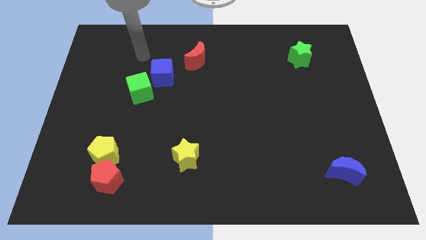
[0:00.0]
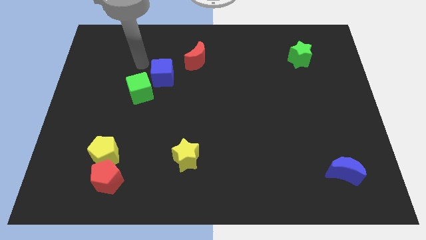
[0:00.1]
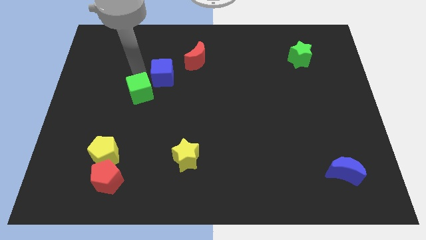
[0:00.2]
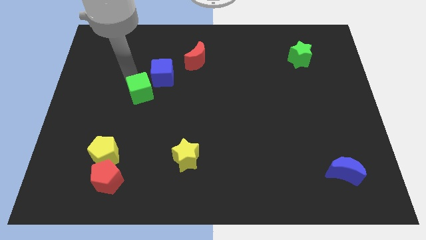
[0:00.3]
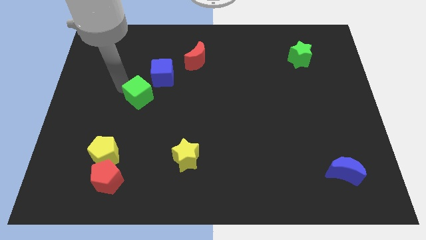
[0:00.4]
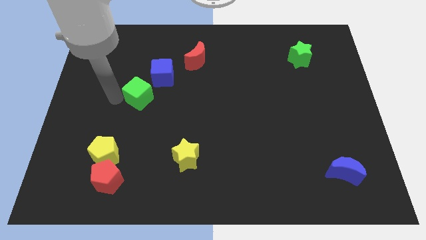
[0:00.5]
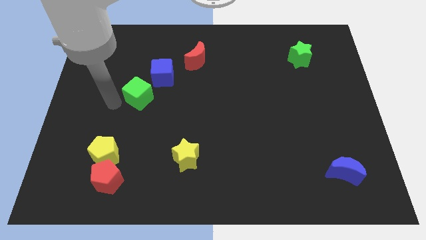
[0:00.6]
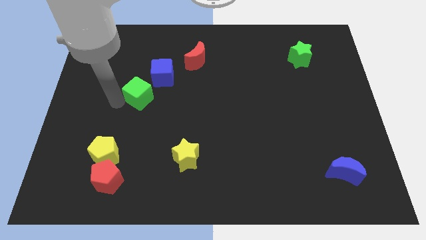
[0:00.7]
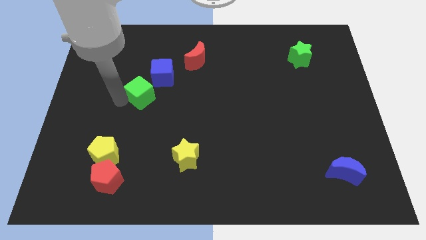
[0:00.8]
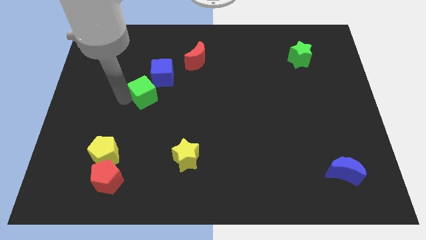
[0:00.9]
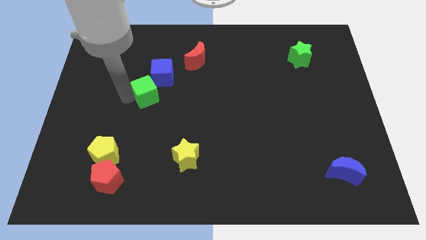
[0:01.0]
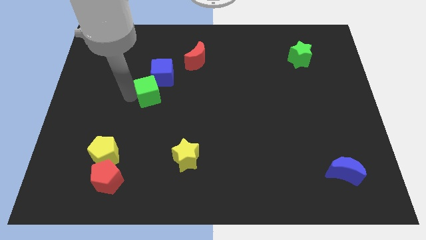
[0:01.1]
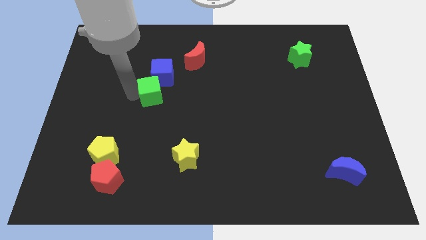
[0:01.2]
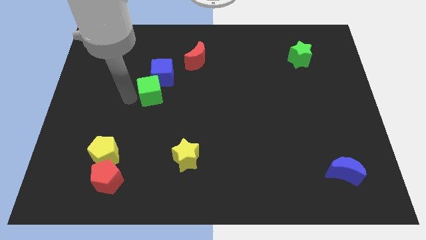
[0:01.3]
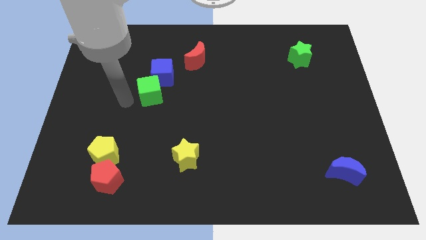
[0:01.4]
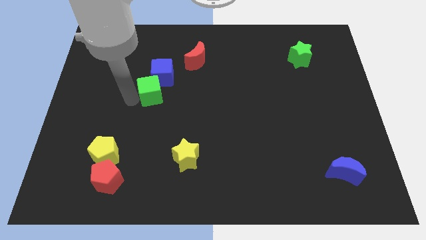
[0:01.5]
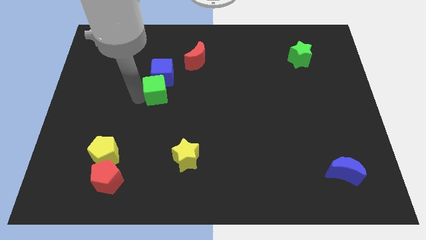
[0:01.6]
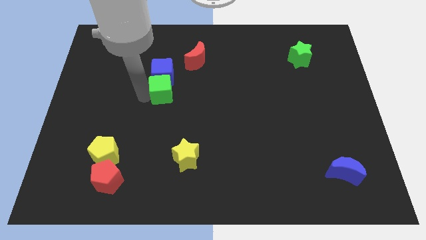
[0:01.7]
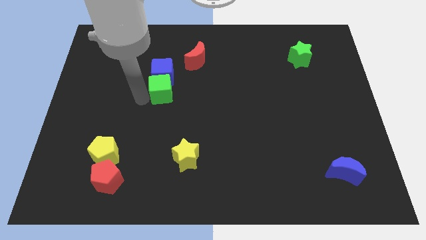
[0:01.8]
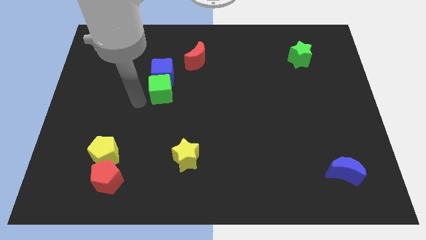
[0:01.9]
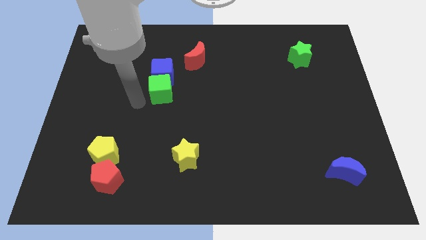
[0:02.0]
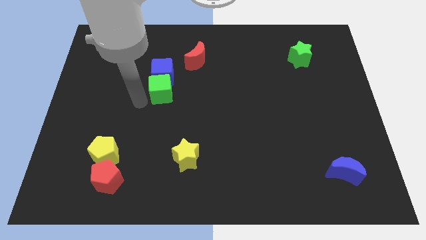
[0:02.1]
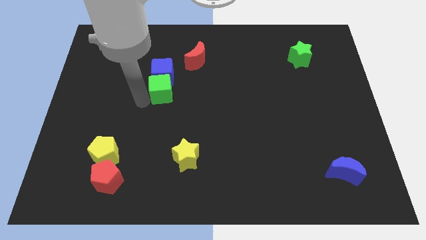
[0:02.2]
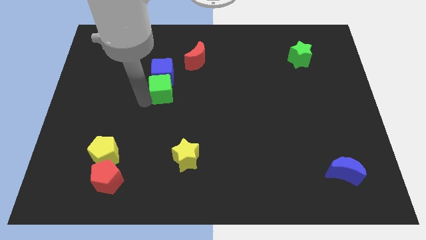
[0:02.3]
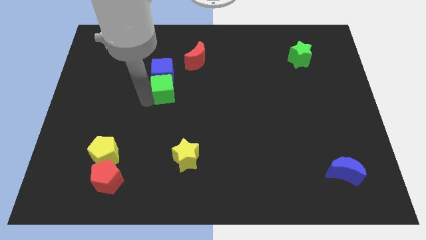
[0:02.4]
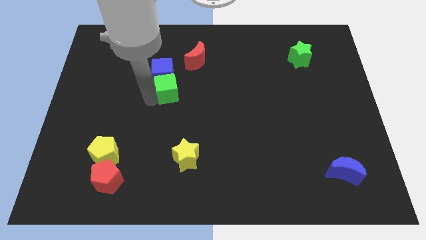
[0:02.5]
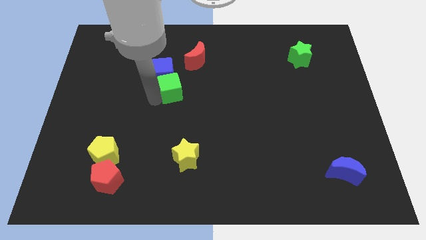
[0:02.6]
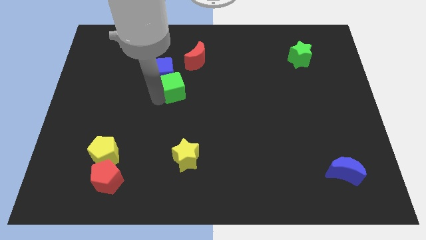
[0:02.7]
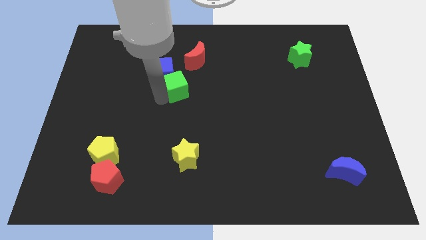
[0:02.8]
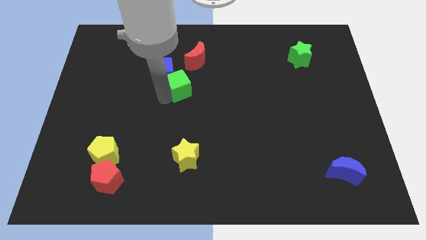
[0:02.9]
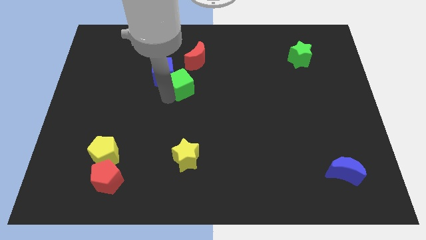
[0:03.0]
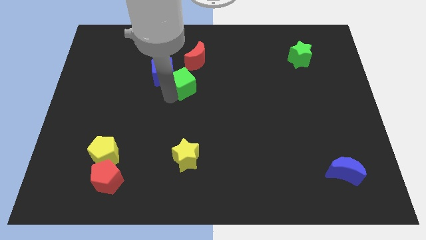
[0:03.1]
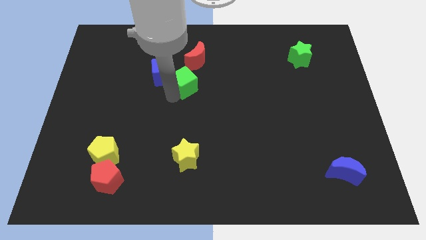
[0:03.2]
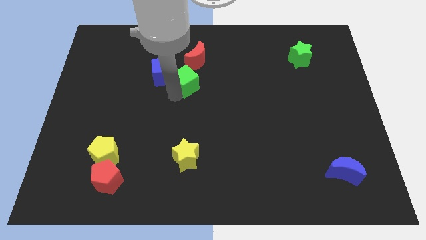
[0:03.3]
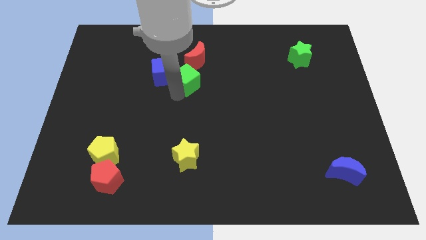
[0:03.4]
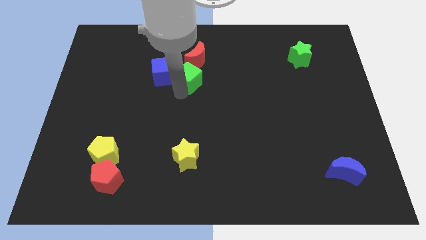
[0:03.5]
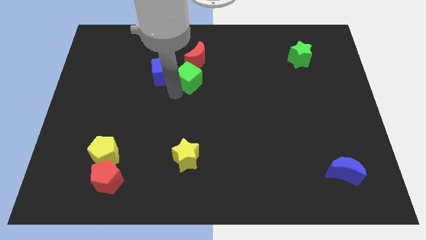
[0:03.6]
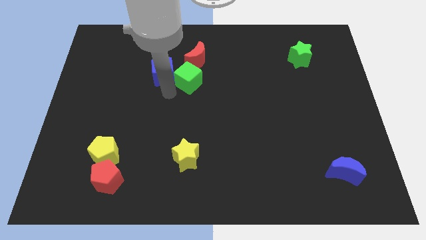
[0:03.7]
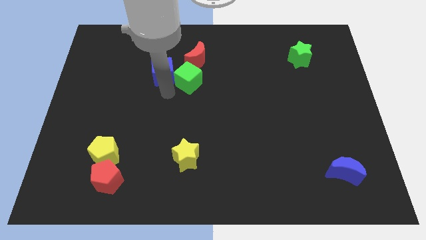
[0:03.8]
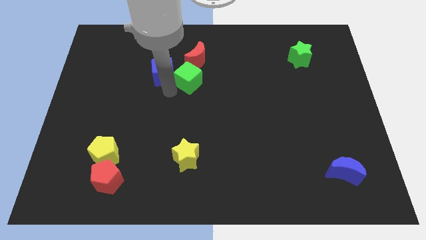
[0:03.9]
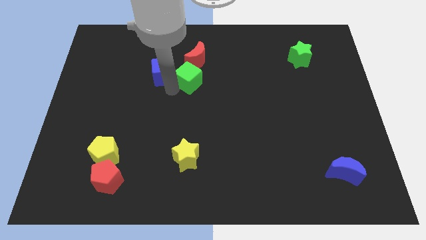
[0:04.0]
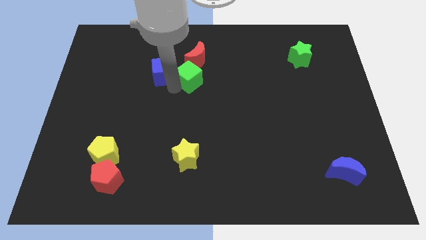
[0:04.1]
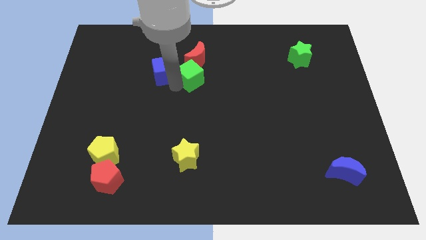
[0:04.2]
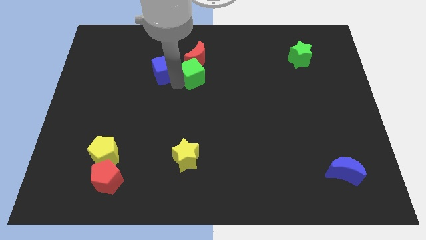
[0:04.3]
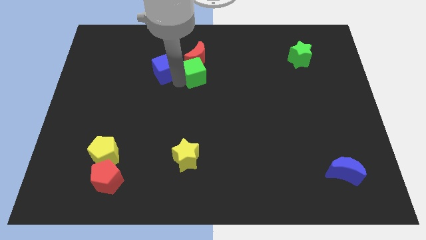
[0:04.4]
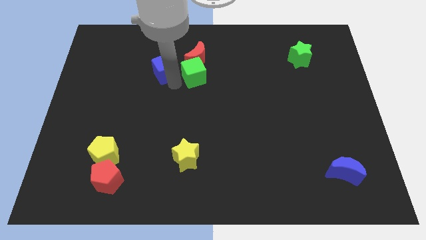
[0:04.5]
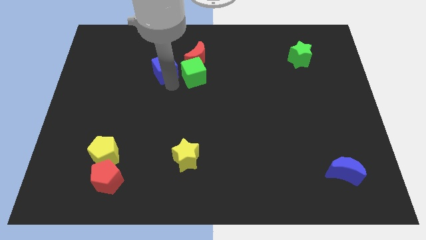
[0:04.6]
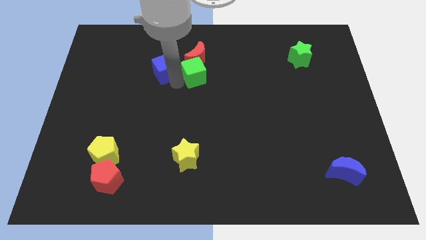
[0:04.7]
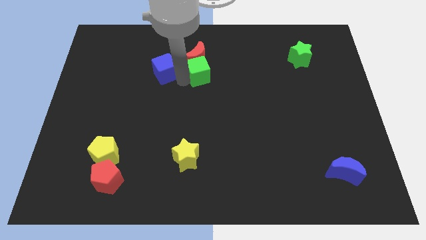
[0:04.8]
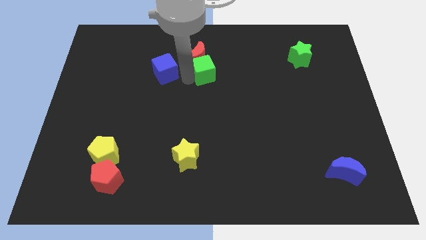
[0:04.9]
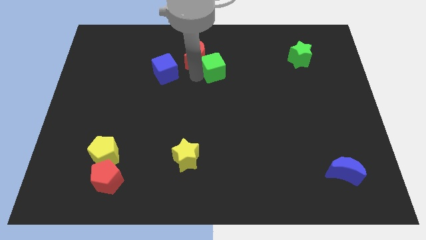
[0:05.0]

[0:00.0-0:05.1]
slide the green cube to the right of the red moon

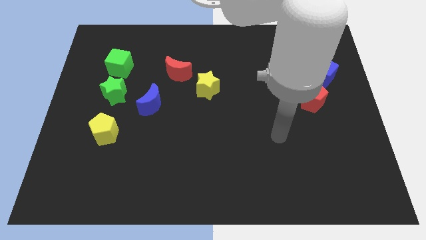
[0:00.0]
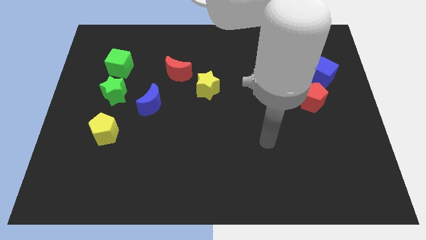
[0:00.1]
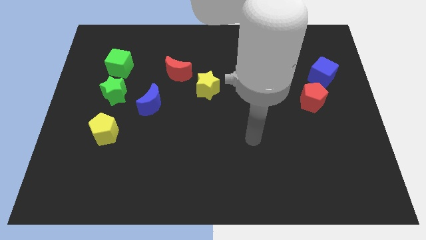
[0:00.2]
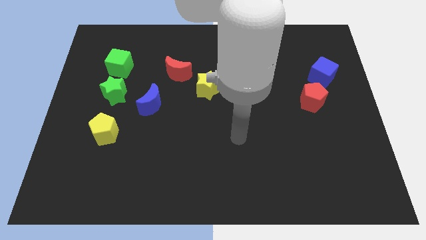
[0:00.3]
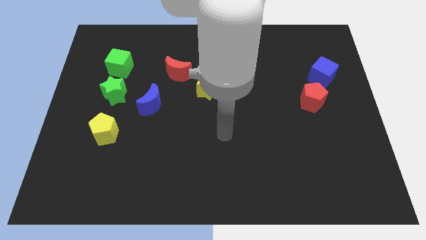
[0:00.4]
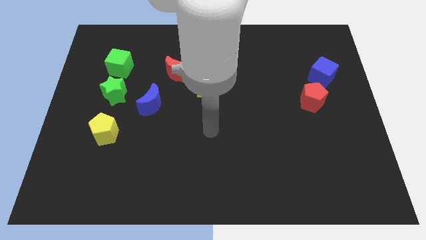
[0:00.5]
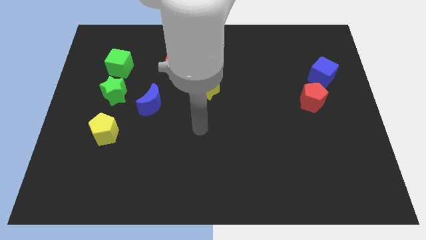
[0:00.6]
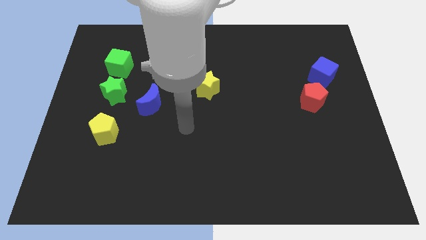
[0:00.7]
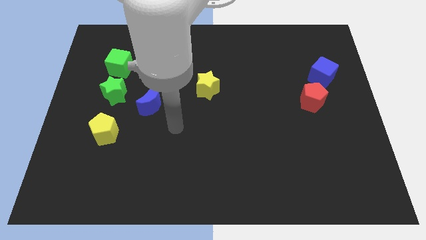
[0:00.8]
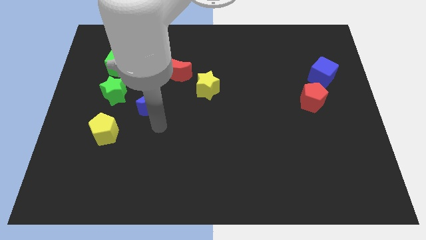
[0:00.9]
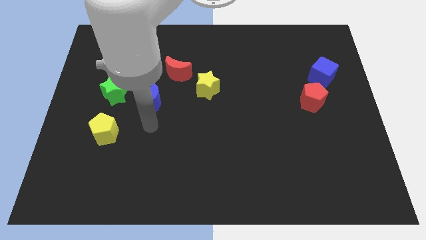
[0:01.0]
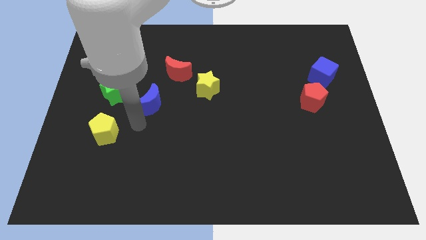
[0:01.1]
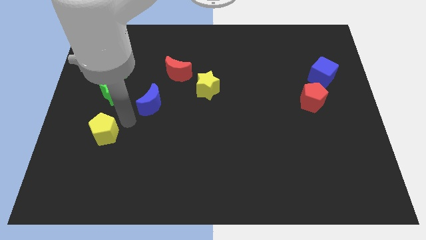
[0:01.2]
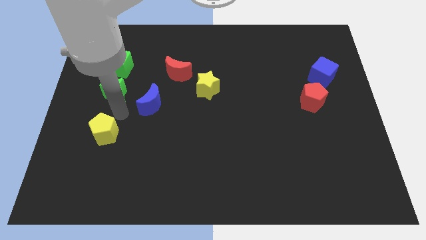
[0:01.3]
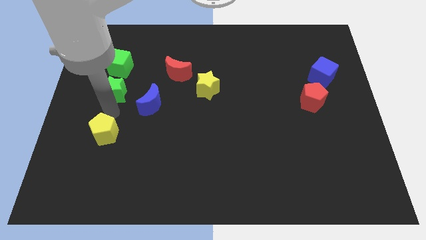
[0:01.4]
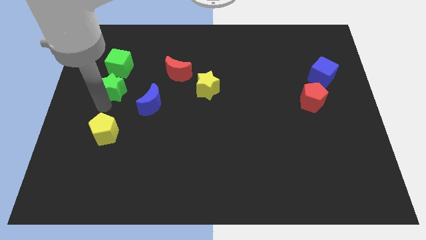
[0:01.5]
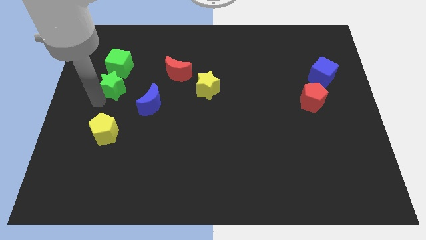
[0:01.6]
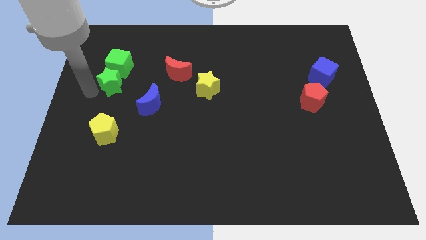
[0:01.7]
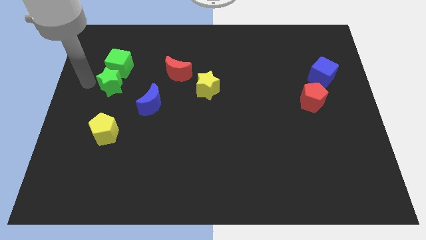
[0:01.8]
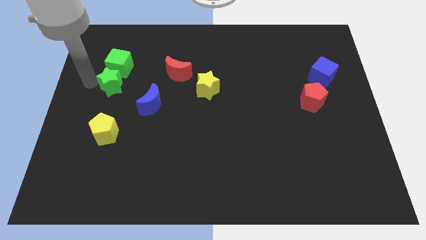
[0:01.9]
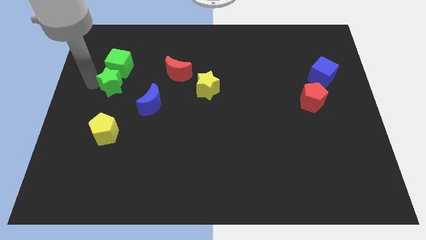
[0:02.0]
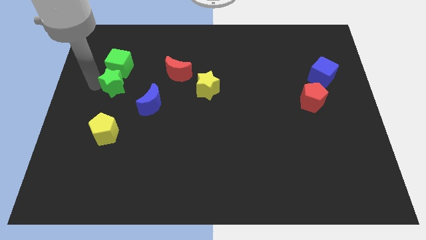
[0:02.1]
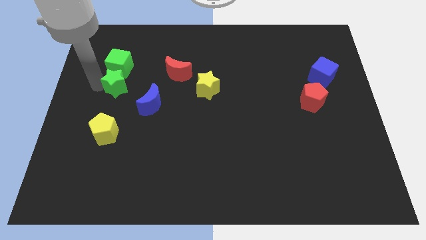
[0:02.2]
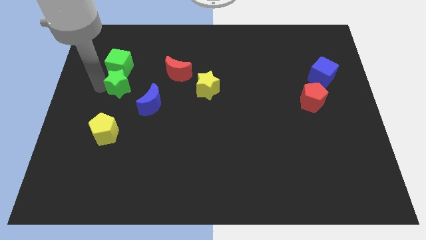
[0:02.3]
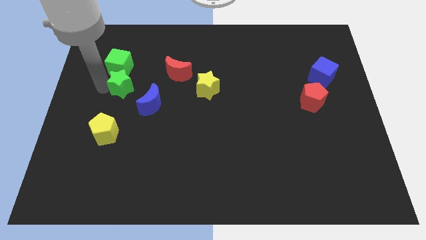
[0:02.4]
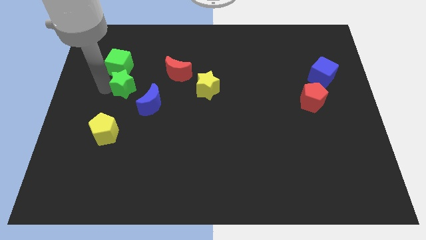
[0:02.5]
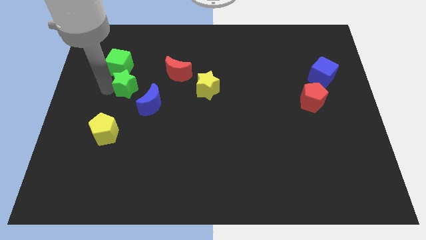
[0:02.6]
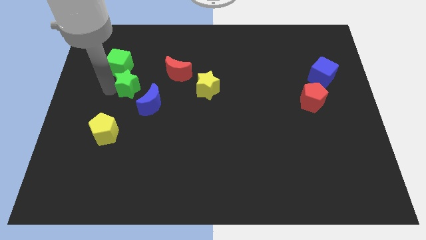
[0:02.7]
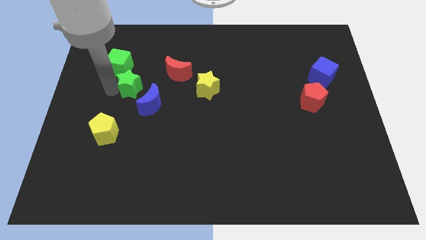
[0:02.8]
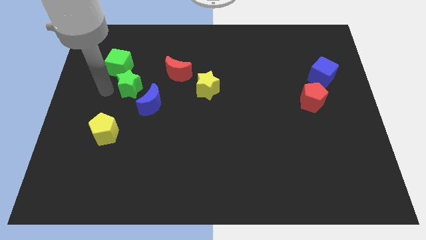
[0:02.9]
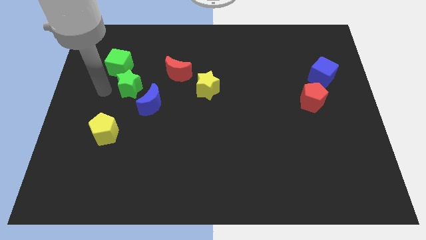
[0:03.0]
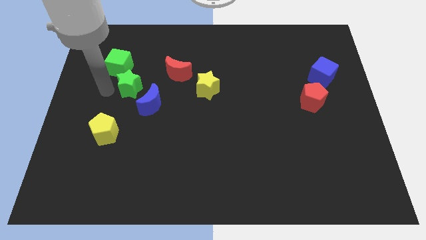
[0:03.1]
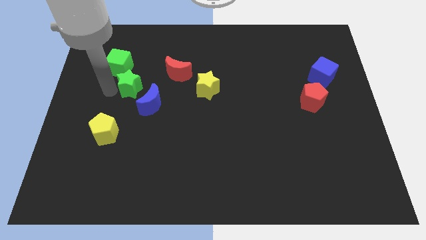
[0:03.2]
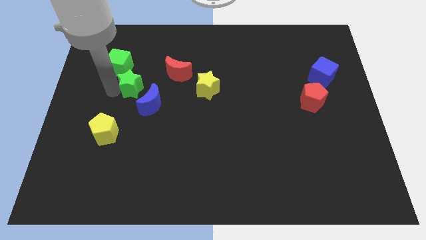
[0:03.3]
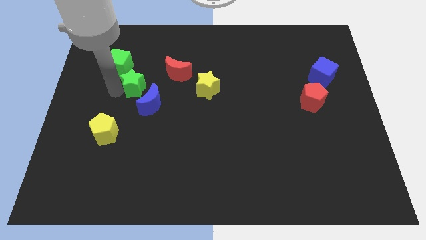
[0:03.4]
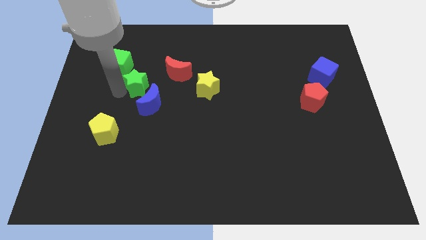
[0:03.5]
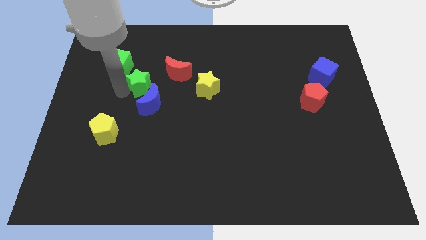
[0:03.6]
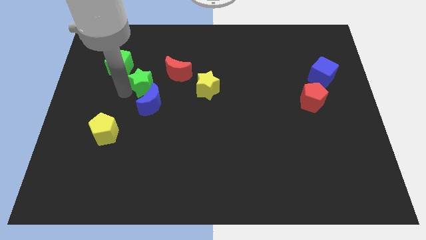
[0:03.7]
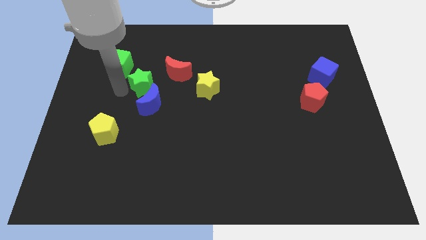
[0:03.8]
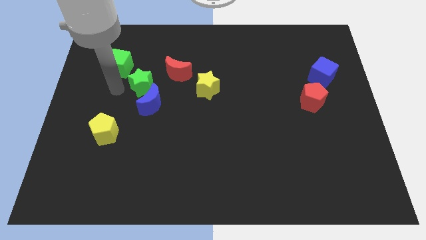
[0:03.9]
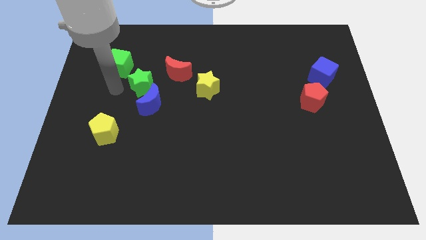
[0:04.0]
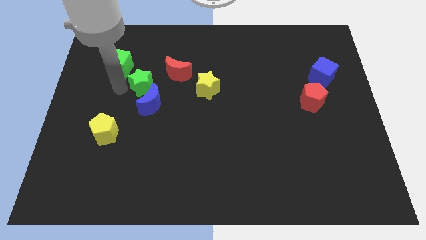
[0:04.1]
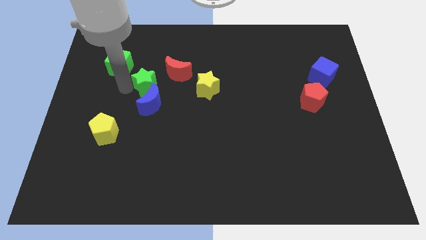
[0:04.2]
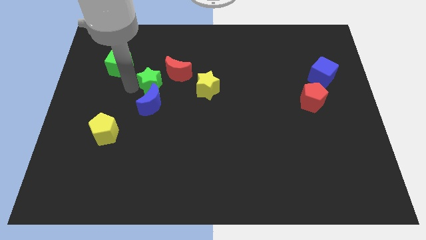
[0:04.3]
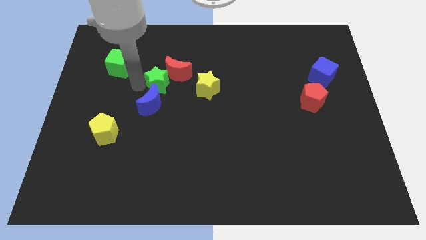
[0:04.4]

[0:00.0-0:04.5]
move the green star to the top right of the blue moon
